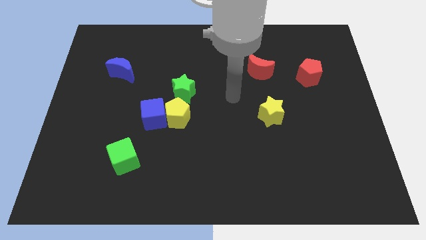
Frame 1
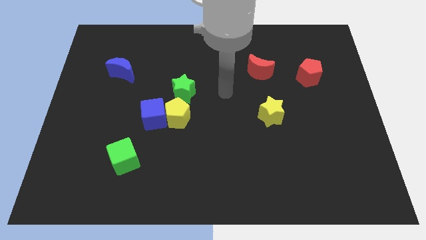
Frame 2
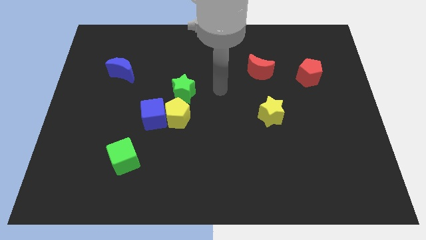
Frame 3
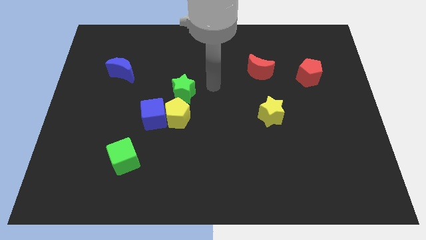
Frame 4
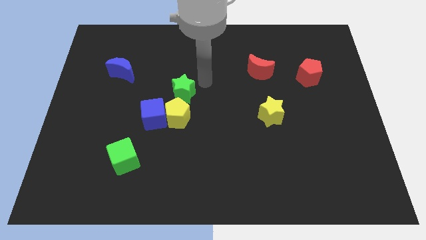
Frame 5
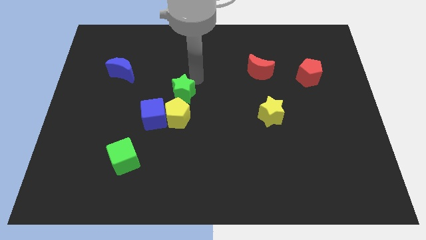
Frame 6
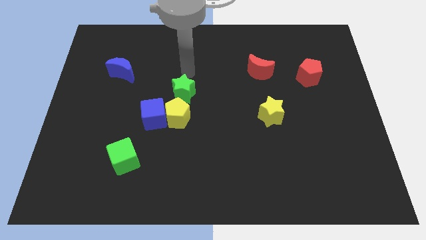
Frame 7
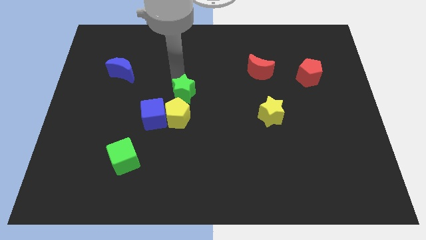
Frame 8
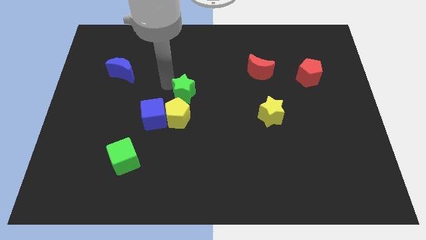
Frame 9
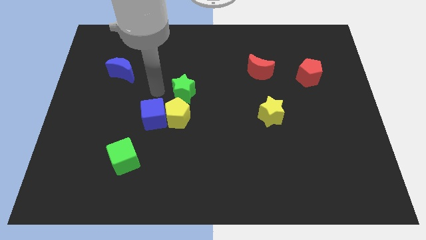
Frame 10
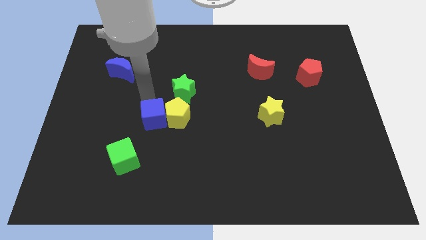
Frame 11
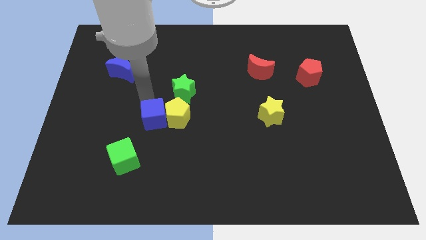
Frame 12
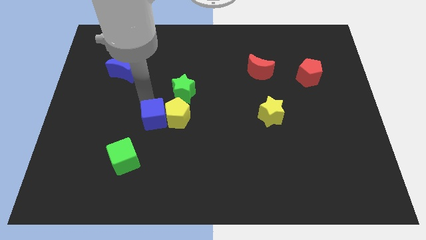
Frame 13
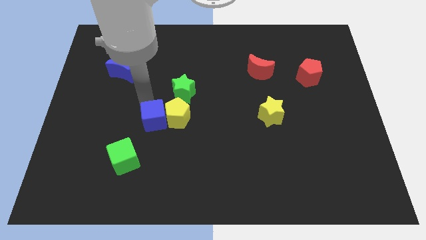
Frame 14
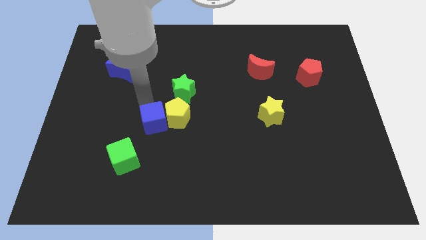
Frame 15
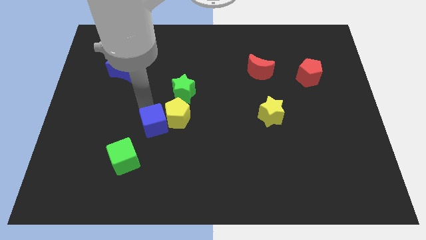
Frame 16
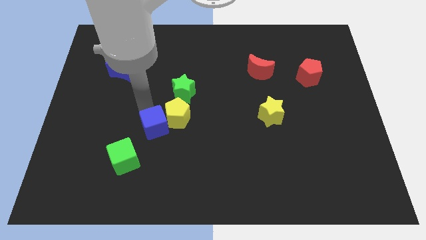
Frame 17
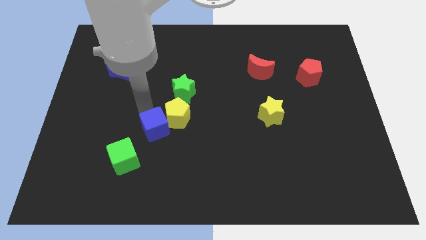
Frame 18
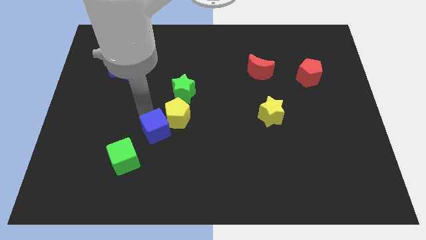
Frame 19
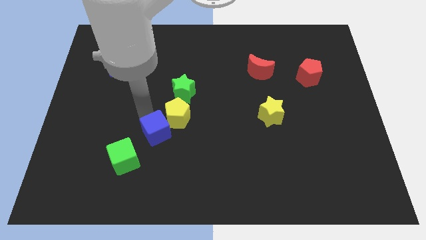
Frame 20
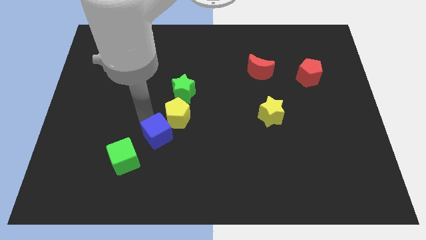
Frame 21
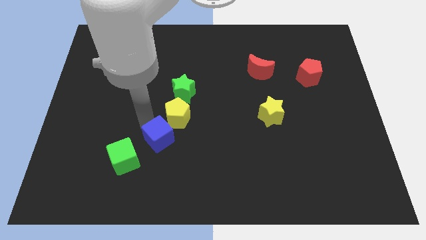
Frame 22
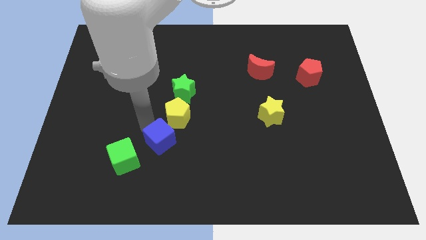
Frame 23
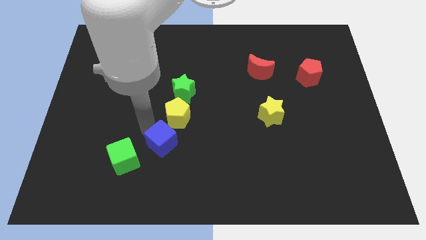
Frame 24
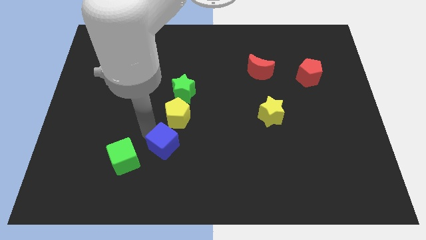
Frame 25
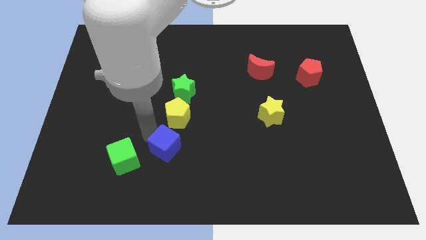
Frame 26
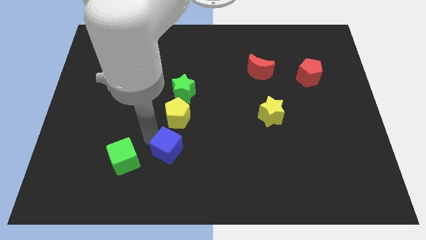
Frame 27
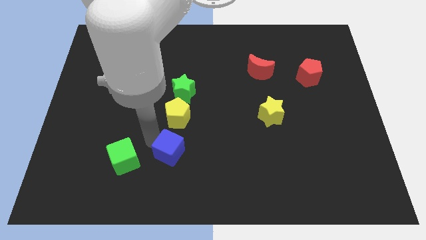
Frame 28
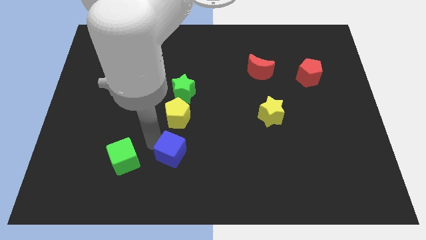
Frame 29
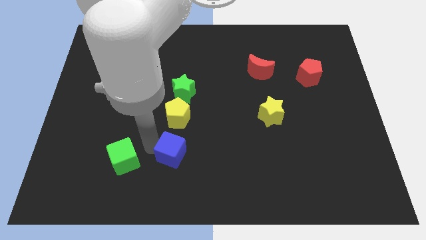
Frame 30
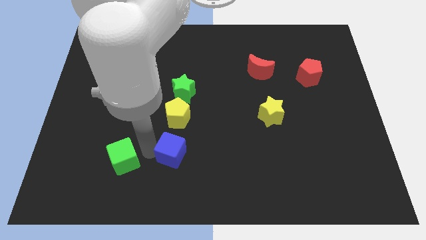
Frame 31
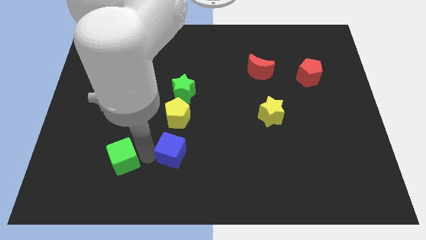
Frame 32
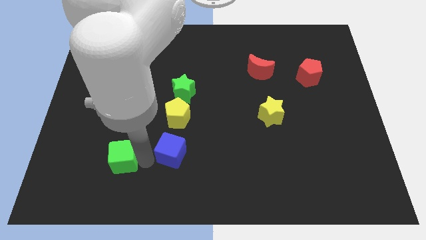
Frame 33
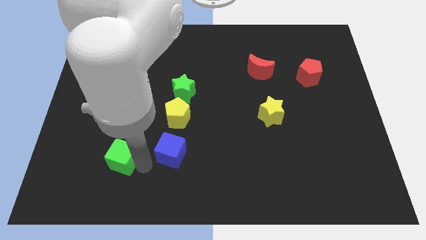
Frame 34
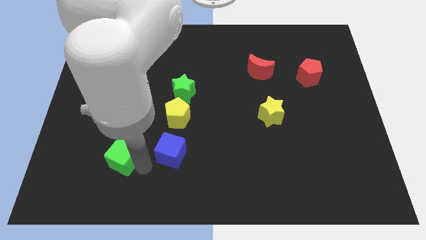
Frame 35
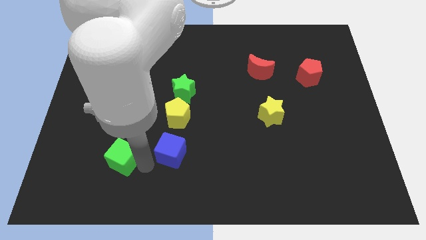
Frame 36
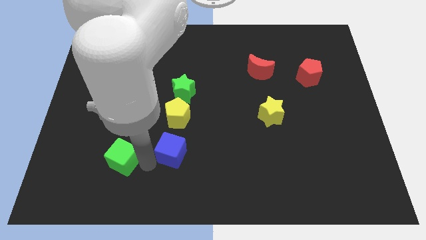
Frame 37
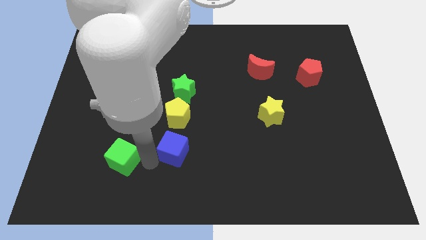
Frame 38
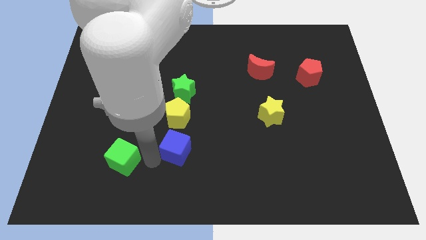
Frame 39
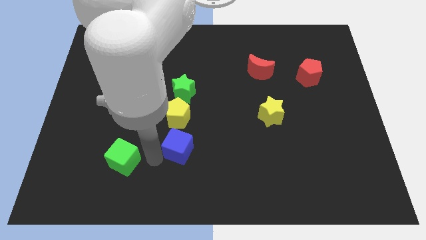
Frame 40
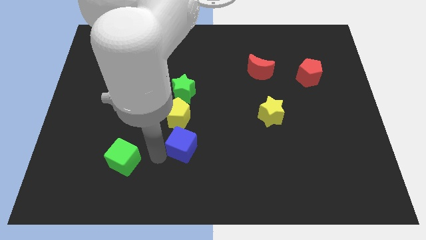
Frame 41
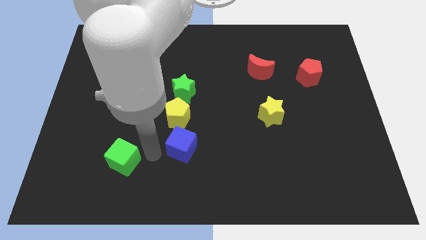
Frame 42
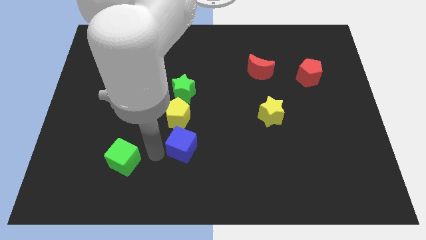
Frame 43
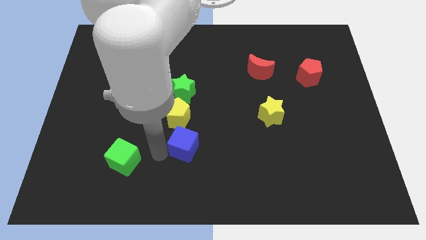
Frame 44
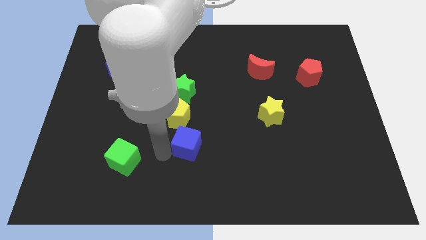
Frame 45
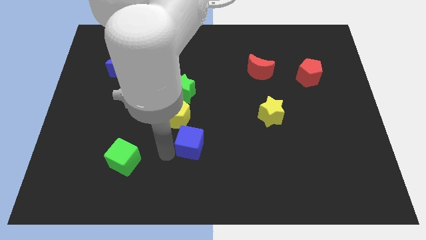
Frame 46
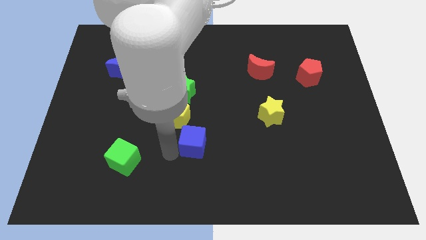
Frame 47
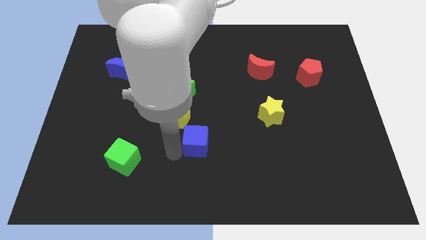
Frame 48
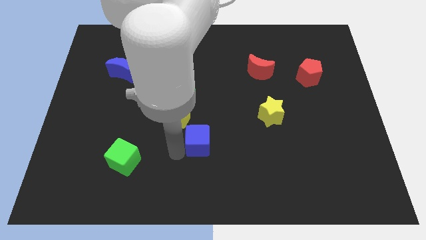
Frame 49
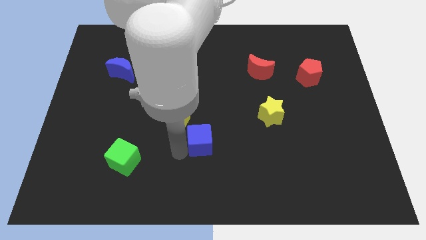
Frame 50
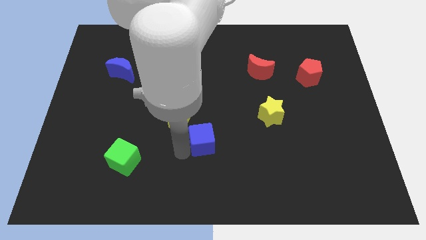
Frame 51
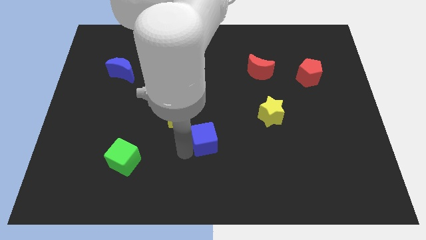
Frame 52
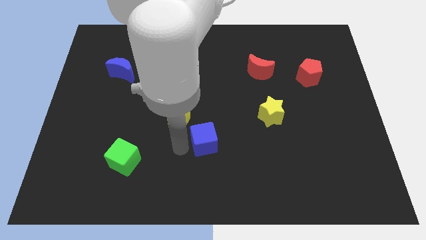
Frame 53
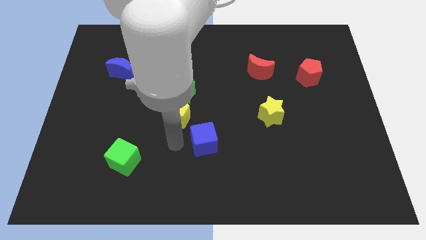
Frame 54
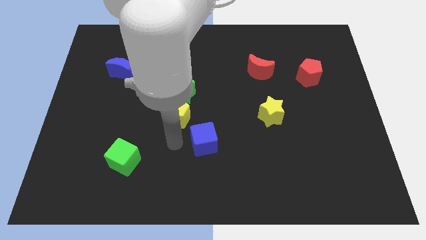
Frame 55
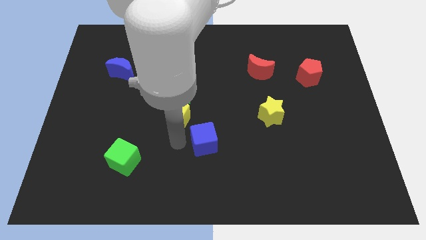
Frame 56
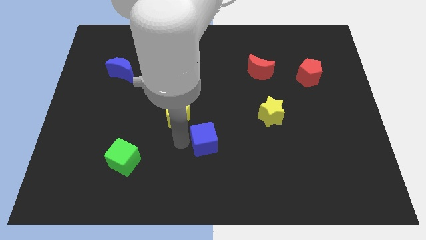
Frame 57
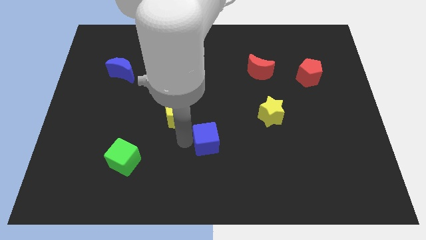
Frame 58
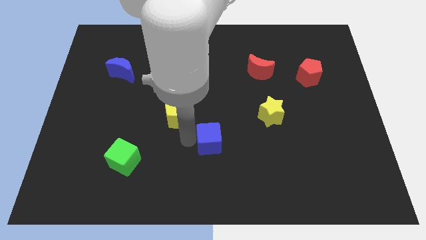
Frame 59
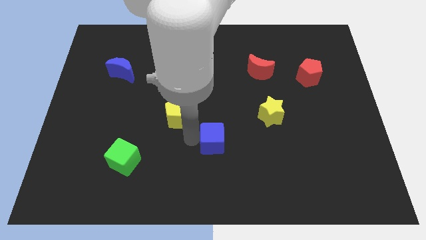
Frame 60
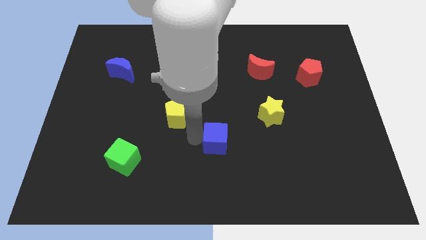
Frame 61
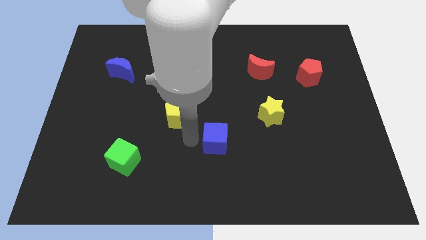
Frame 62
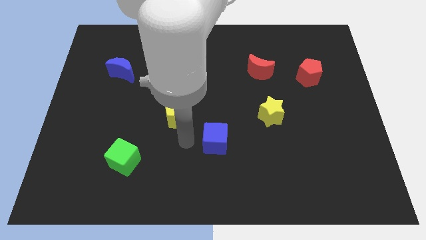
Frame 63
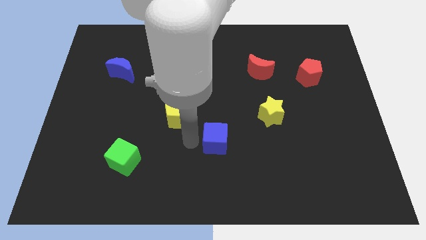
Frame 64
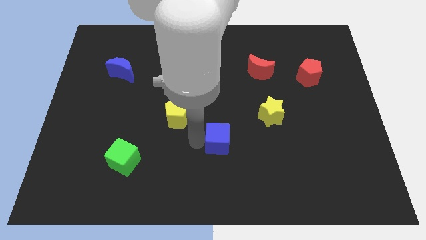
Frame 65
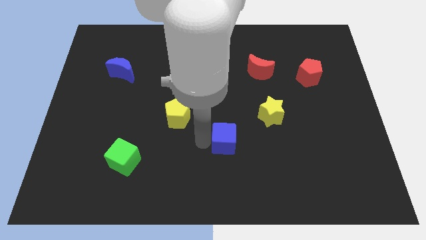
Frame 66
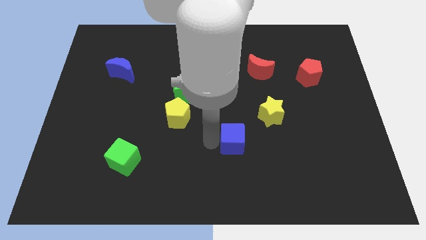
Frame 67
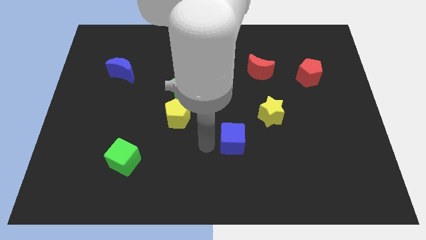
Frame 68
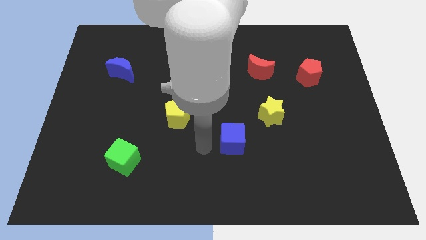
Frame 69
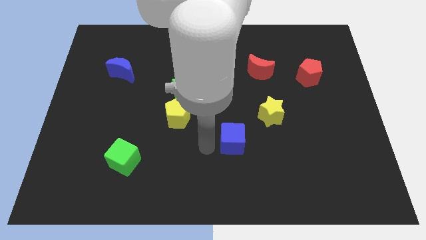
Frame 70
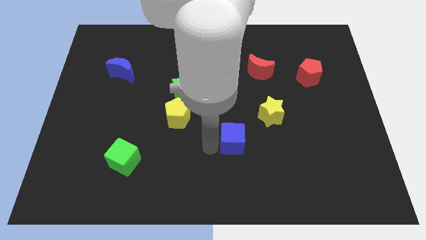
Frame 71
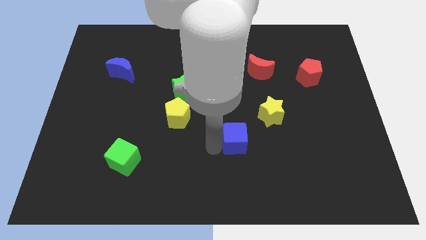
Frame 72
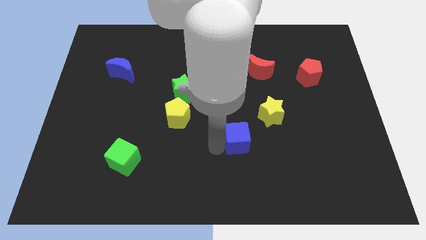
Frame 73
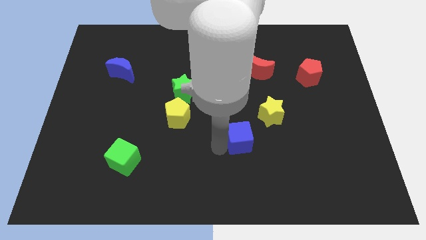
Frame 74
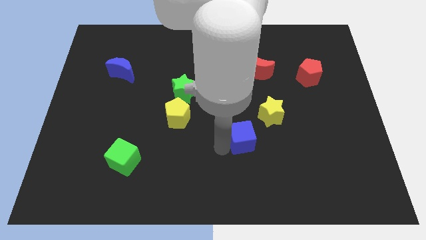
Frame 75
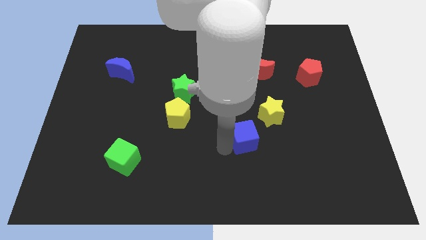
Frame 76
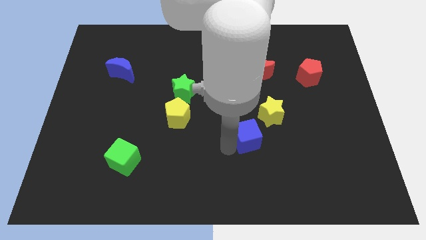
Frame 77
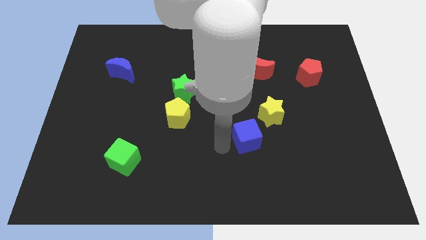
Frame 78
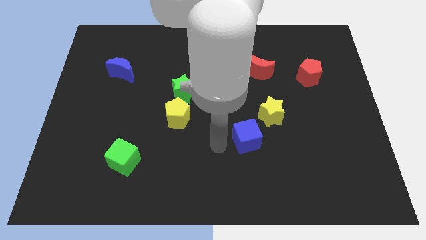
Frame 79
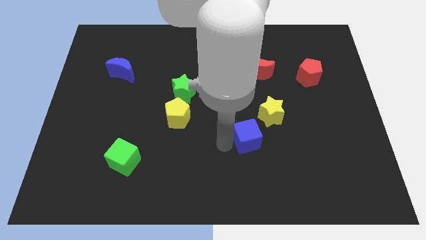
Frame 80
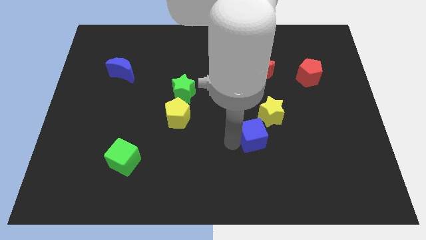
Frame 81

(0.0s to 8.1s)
slide the blue cube right
